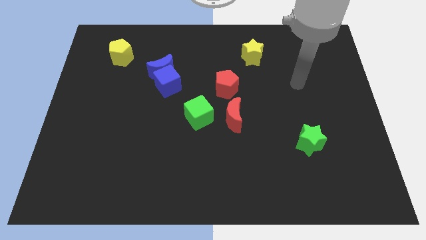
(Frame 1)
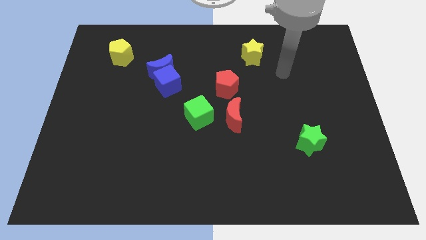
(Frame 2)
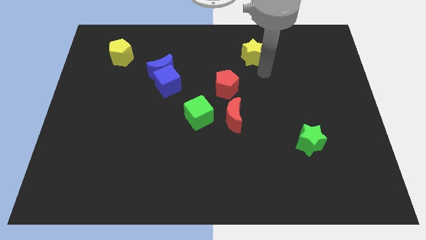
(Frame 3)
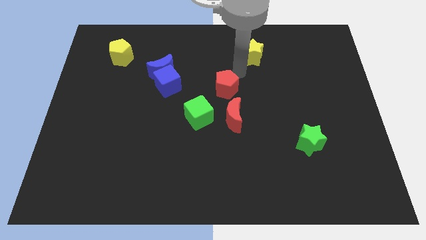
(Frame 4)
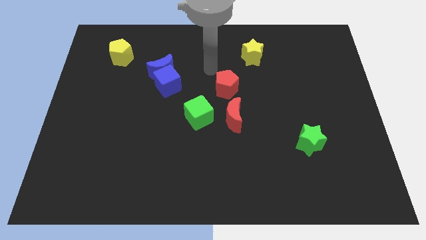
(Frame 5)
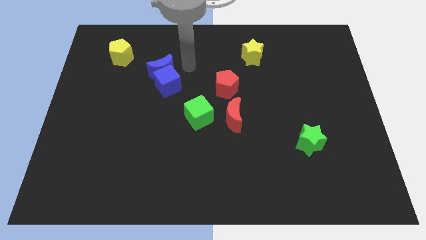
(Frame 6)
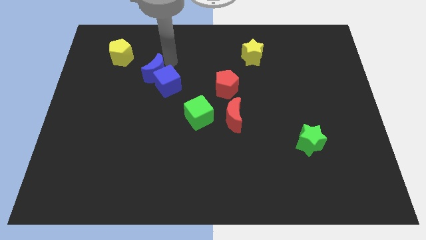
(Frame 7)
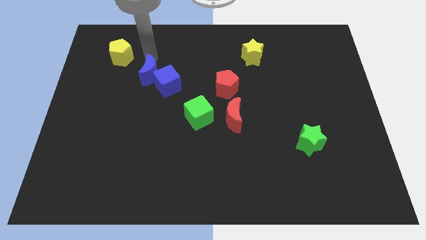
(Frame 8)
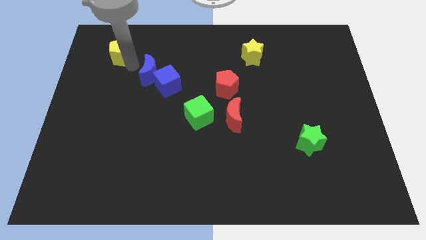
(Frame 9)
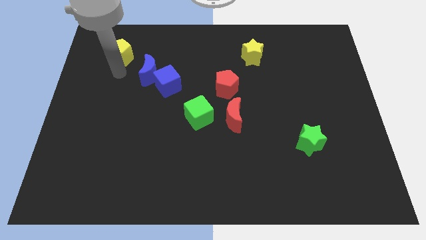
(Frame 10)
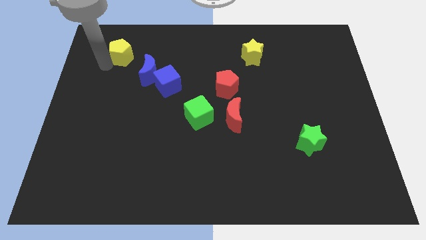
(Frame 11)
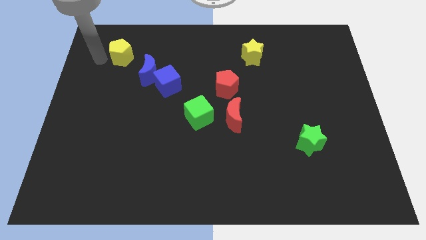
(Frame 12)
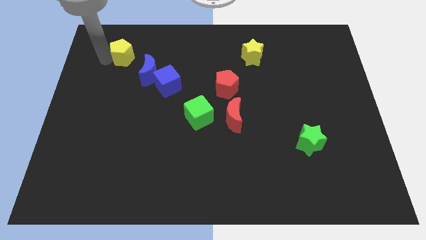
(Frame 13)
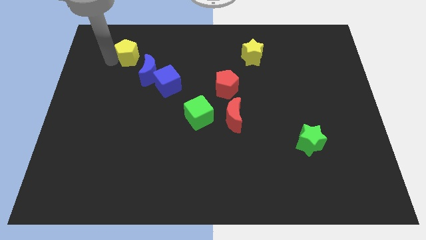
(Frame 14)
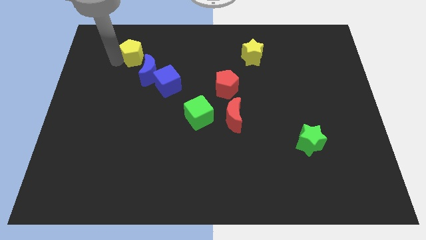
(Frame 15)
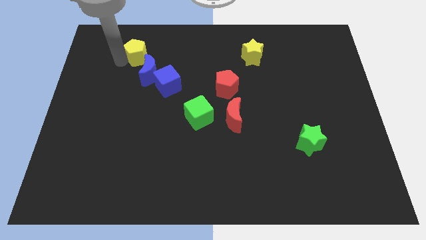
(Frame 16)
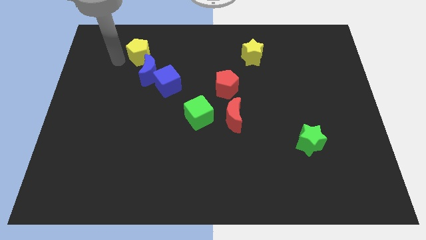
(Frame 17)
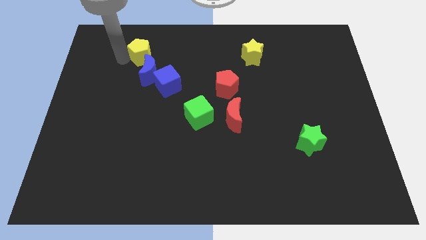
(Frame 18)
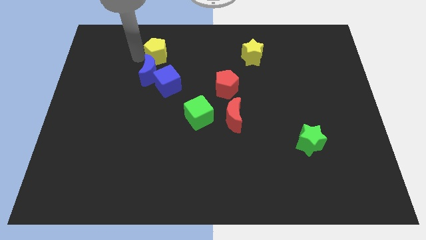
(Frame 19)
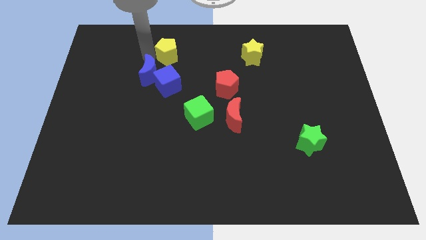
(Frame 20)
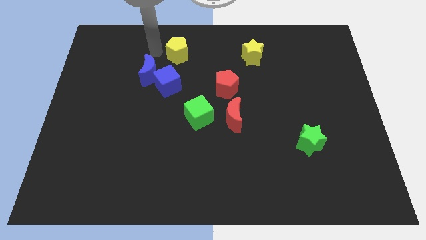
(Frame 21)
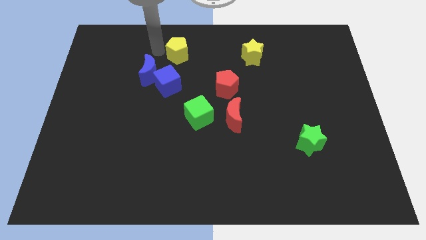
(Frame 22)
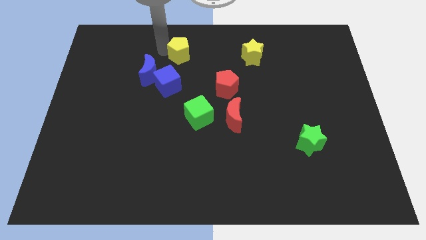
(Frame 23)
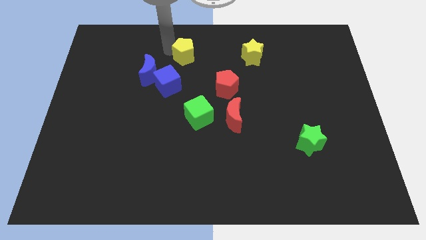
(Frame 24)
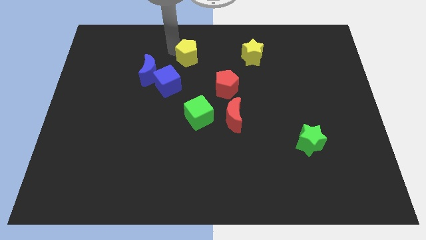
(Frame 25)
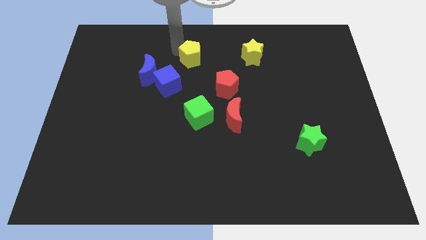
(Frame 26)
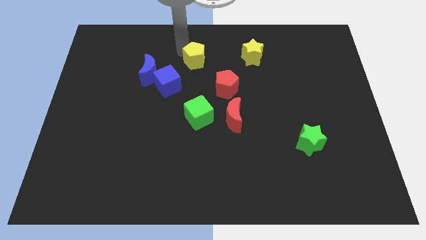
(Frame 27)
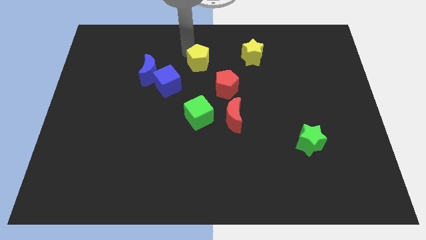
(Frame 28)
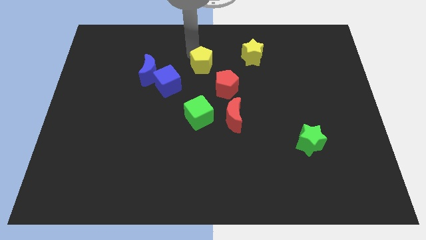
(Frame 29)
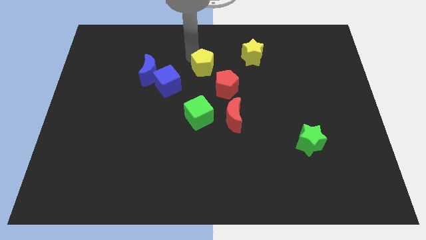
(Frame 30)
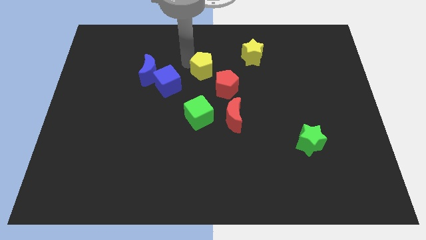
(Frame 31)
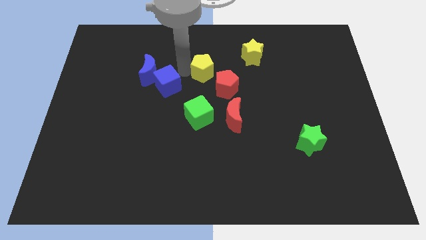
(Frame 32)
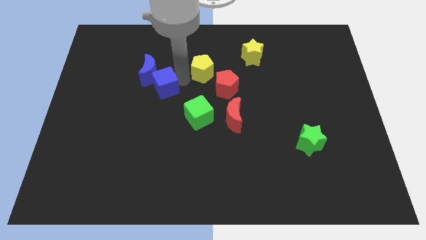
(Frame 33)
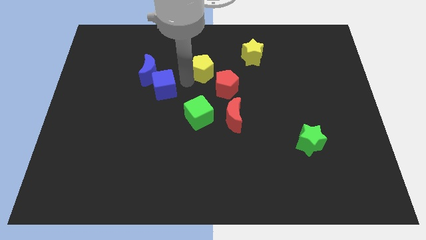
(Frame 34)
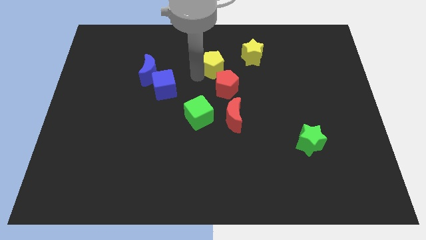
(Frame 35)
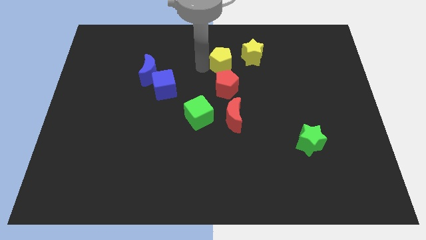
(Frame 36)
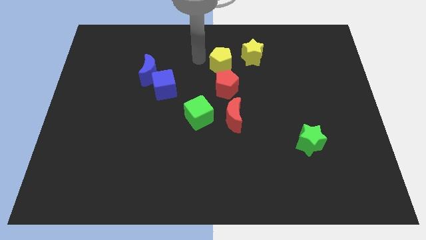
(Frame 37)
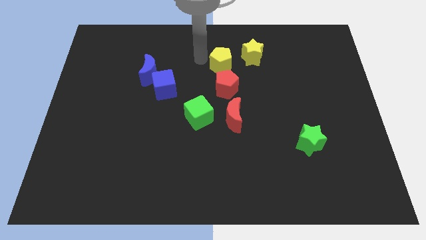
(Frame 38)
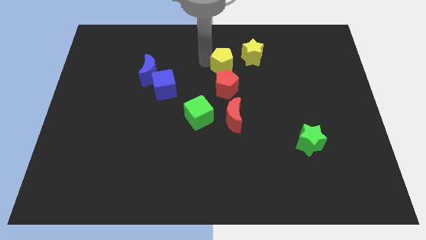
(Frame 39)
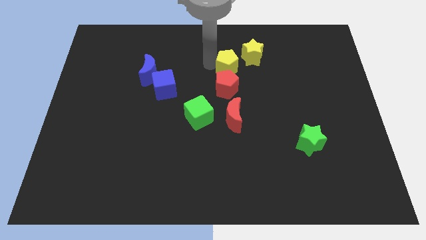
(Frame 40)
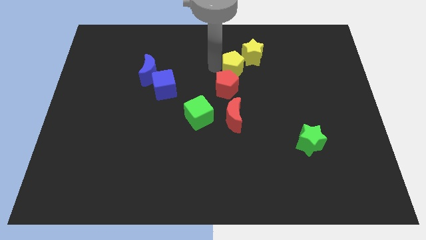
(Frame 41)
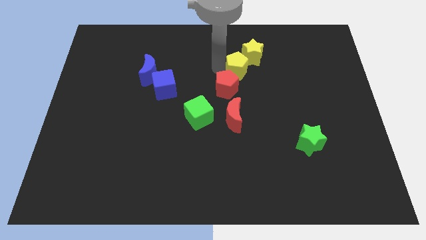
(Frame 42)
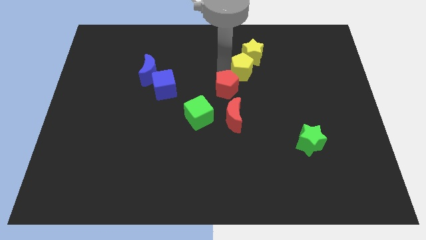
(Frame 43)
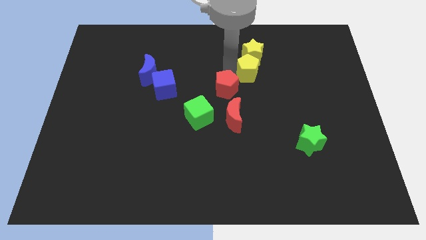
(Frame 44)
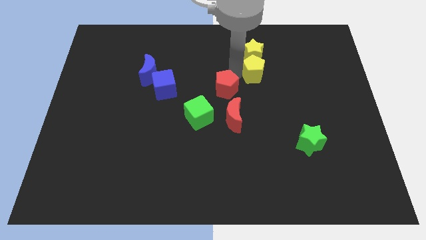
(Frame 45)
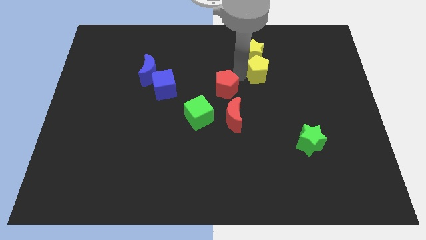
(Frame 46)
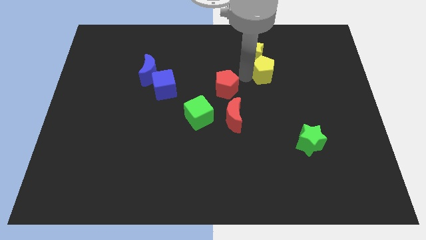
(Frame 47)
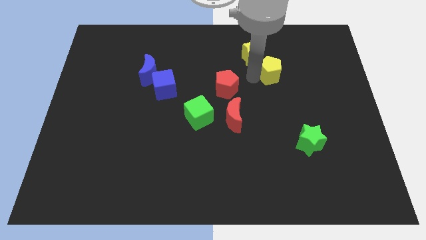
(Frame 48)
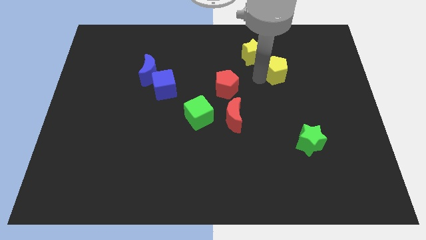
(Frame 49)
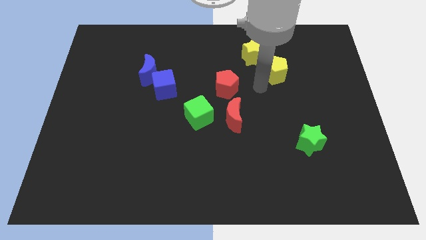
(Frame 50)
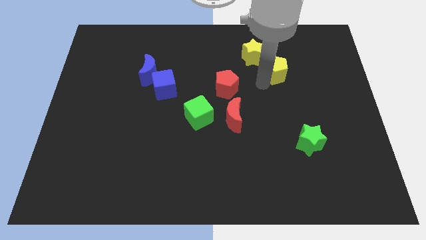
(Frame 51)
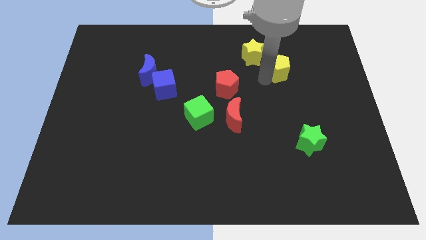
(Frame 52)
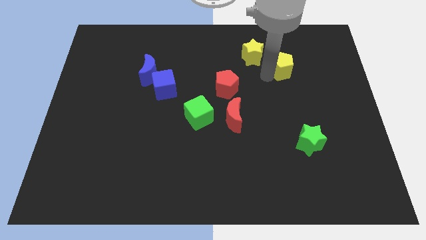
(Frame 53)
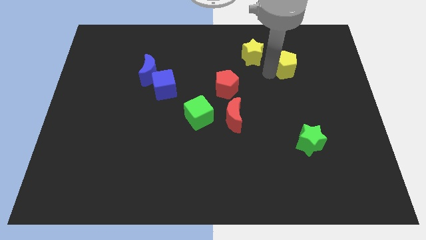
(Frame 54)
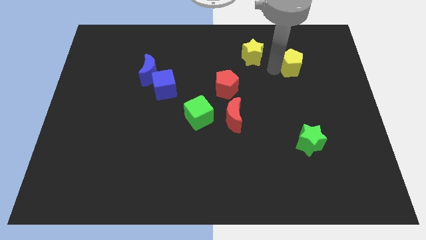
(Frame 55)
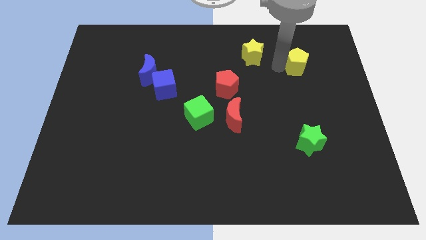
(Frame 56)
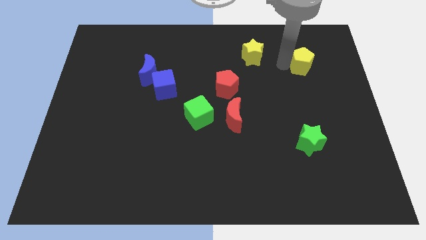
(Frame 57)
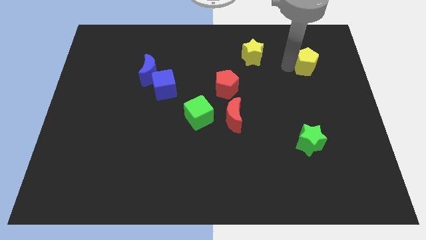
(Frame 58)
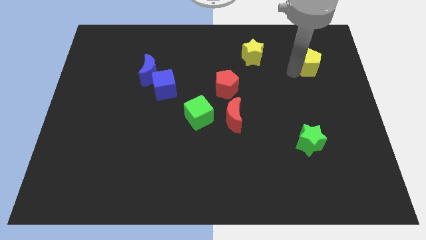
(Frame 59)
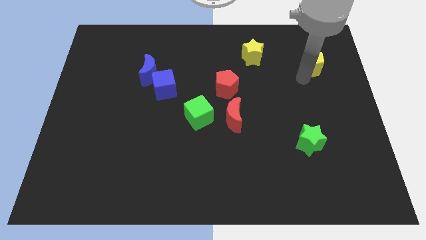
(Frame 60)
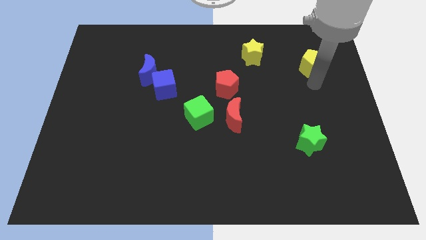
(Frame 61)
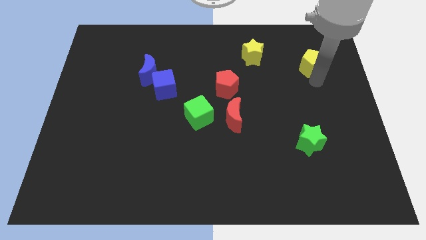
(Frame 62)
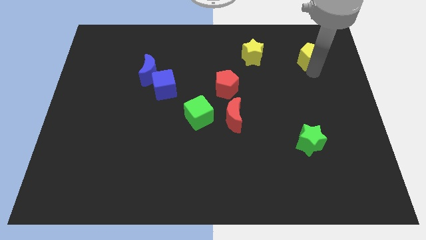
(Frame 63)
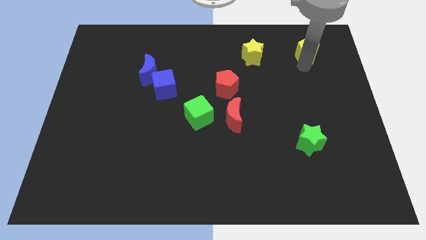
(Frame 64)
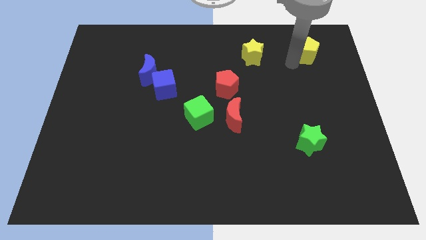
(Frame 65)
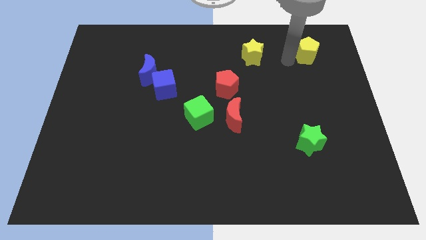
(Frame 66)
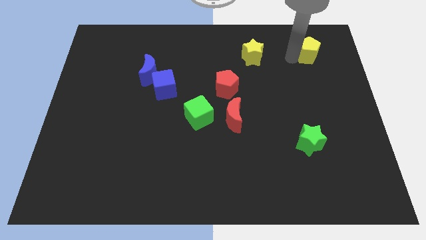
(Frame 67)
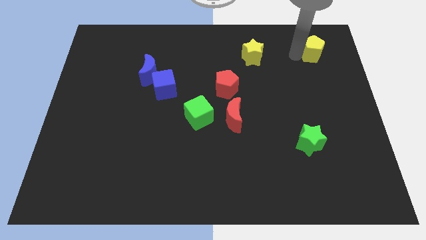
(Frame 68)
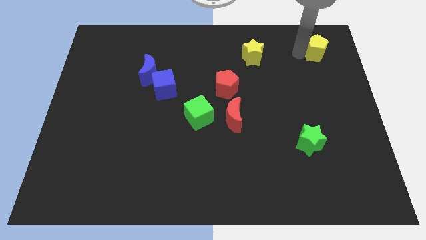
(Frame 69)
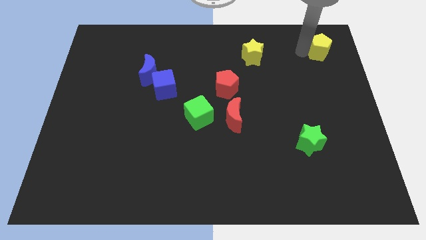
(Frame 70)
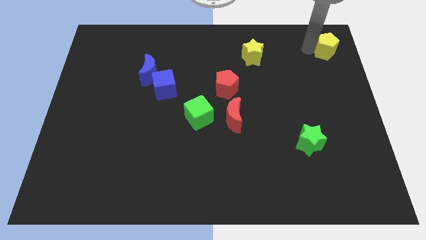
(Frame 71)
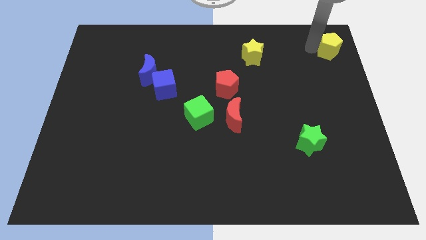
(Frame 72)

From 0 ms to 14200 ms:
slide the yellow pentagon to the upper right corner

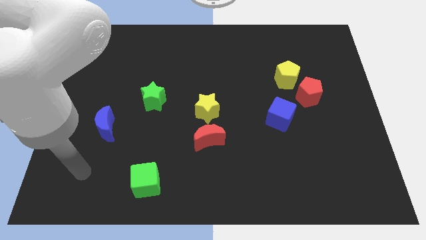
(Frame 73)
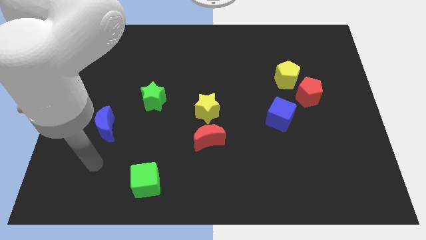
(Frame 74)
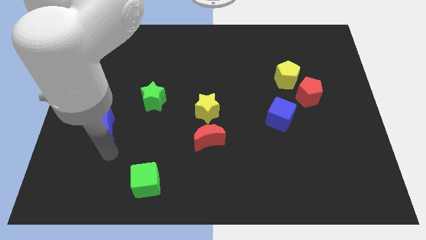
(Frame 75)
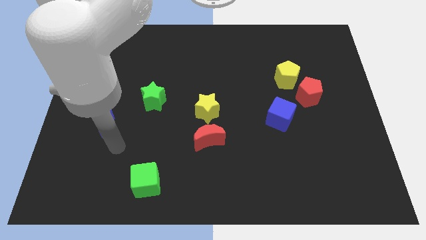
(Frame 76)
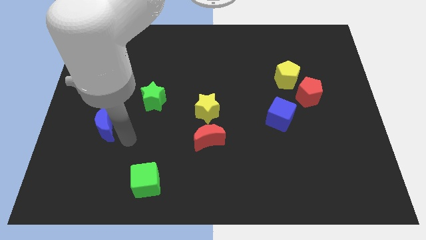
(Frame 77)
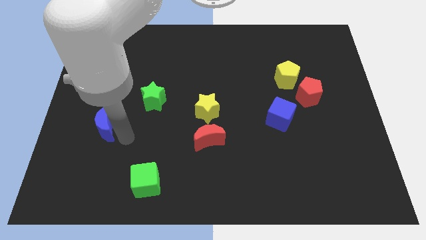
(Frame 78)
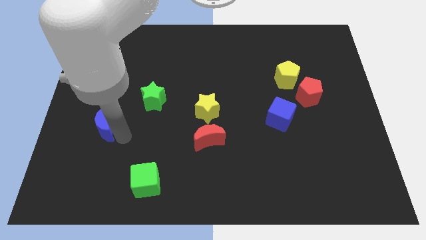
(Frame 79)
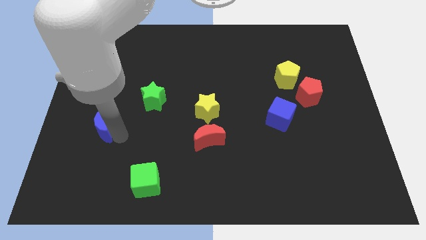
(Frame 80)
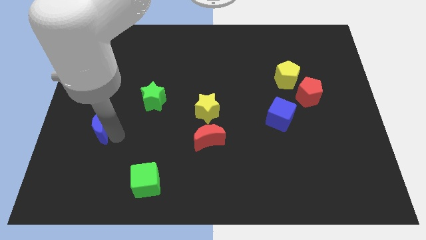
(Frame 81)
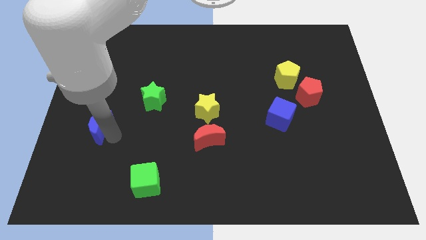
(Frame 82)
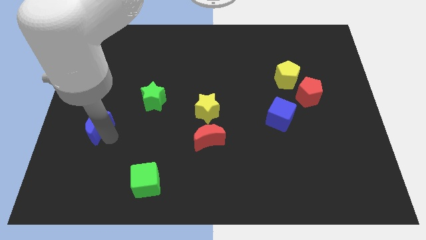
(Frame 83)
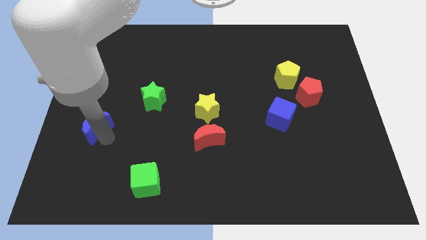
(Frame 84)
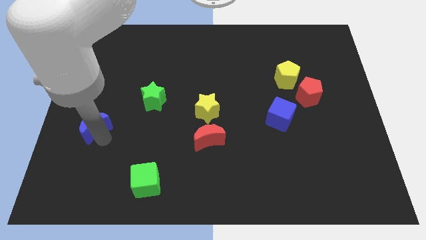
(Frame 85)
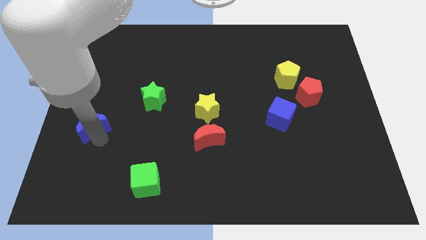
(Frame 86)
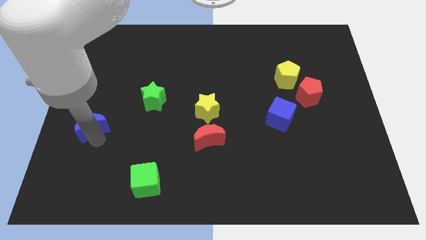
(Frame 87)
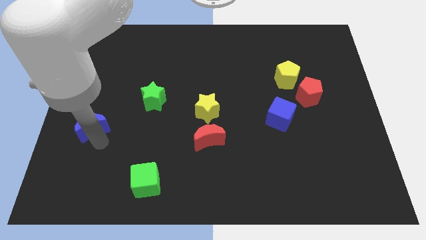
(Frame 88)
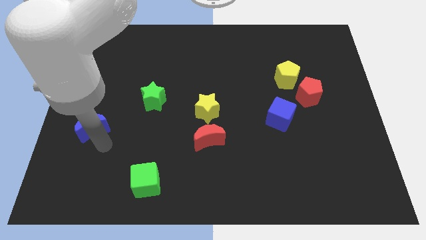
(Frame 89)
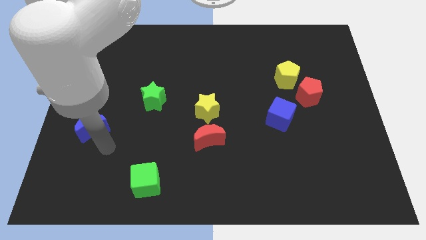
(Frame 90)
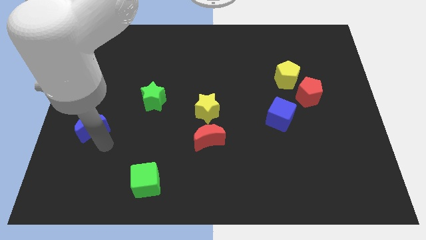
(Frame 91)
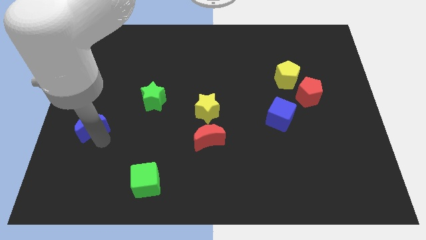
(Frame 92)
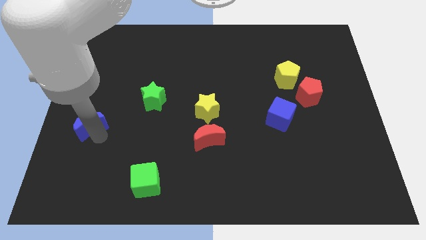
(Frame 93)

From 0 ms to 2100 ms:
put the blue moon to the left side of the board
